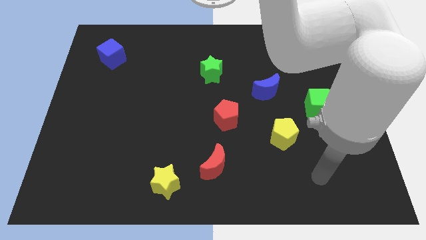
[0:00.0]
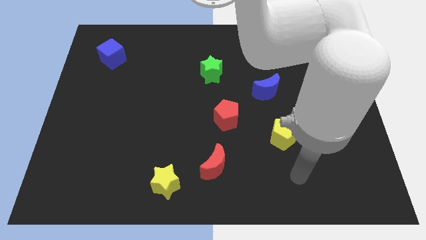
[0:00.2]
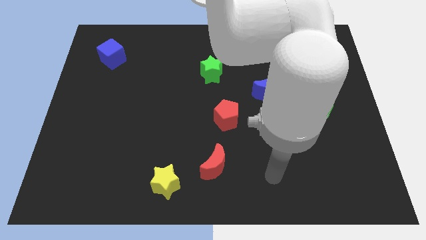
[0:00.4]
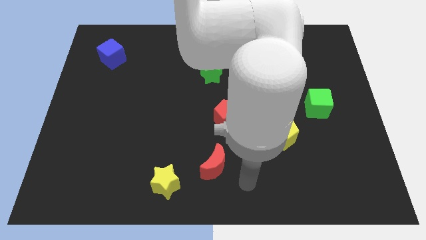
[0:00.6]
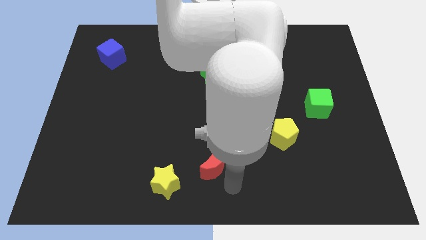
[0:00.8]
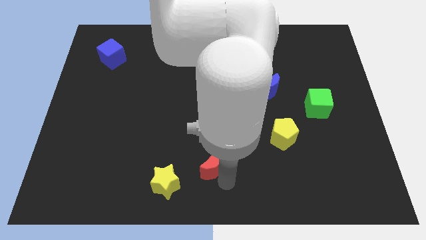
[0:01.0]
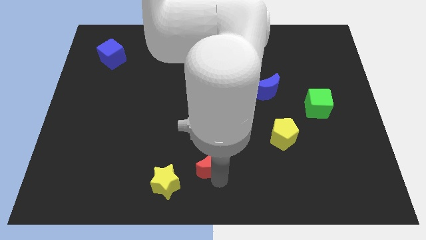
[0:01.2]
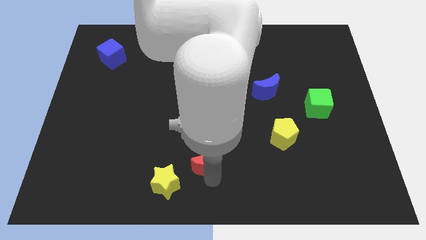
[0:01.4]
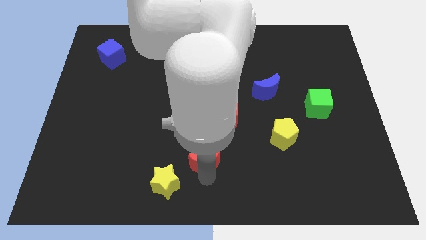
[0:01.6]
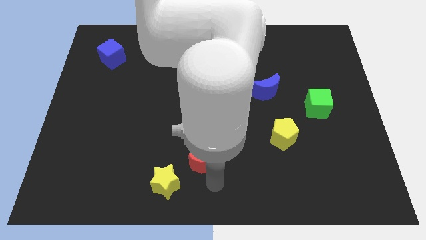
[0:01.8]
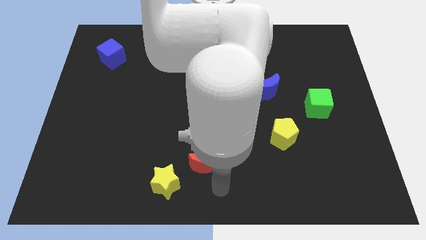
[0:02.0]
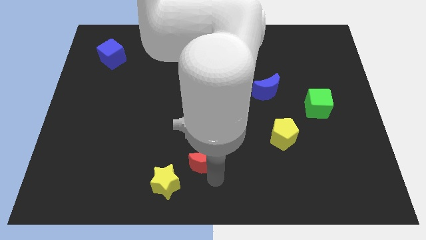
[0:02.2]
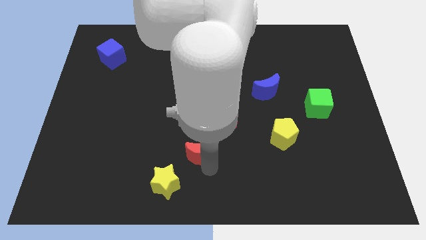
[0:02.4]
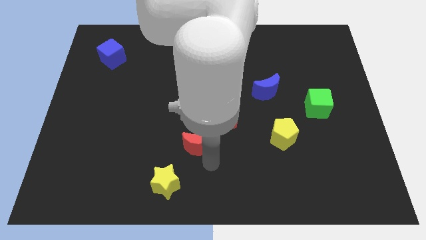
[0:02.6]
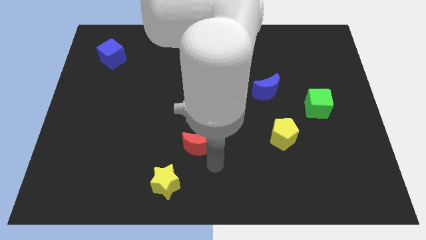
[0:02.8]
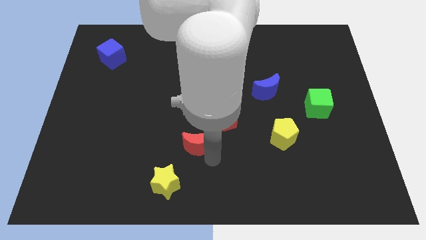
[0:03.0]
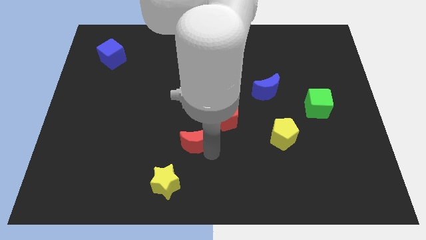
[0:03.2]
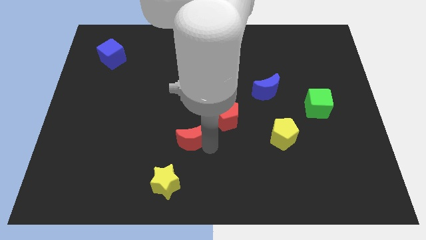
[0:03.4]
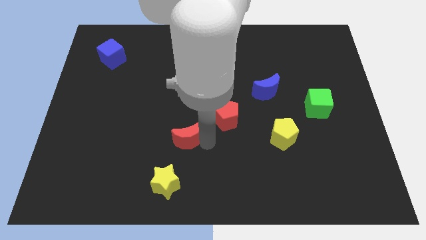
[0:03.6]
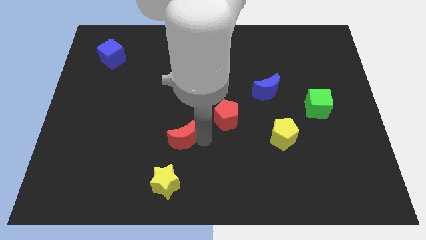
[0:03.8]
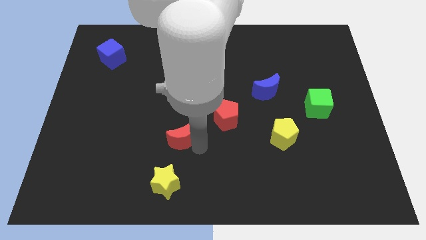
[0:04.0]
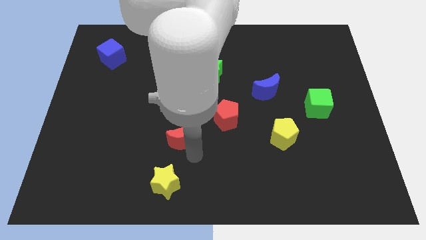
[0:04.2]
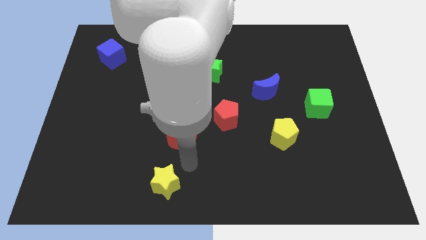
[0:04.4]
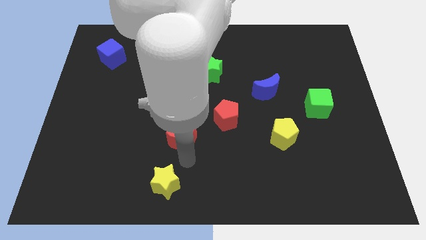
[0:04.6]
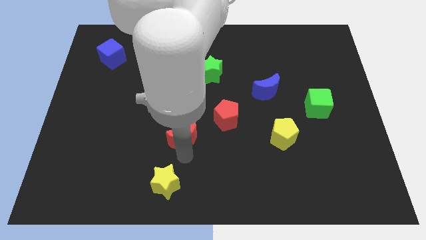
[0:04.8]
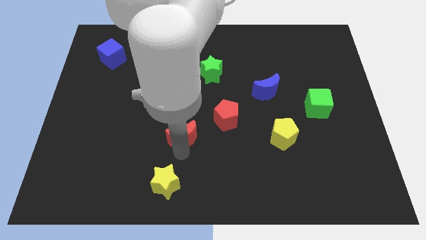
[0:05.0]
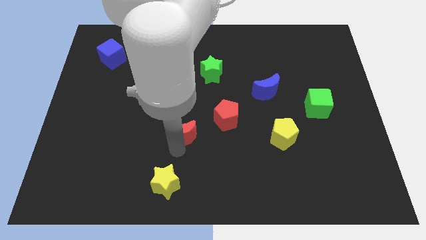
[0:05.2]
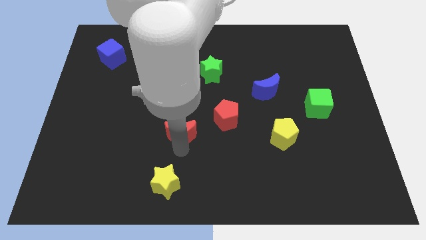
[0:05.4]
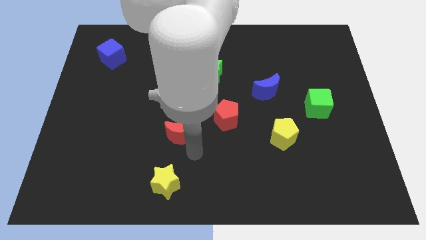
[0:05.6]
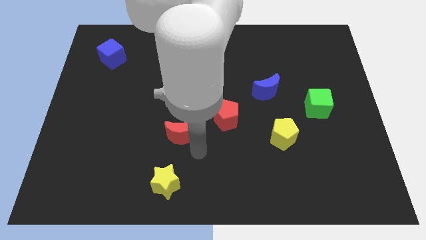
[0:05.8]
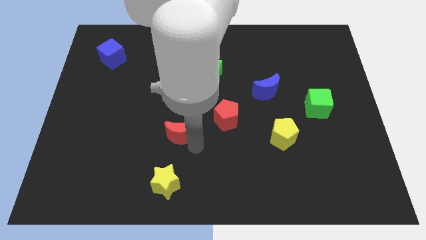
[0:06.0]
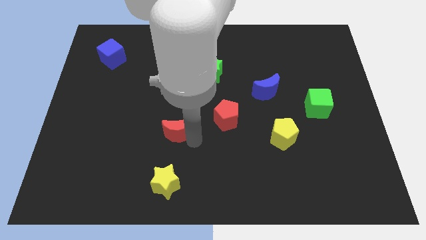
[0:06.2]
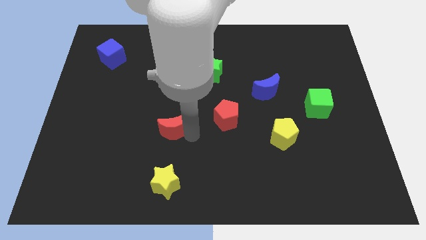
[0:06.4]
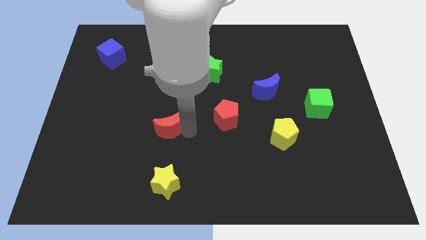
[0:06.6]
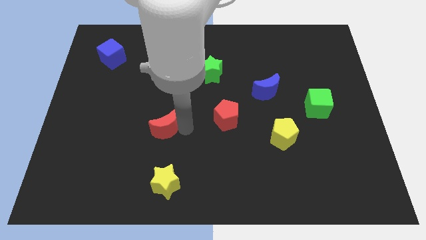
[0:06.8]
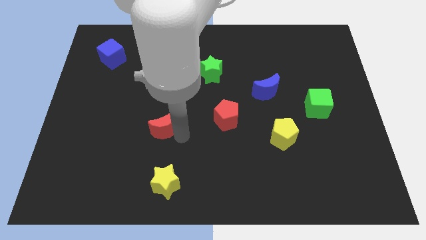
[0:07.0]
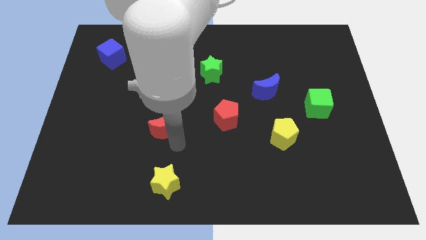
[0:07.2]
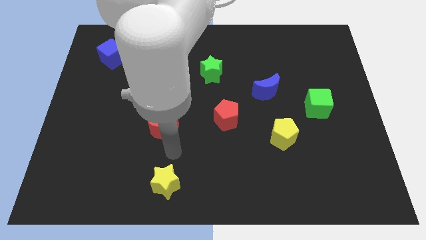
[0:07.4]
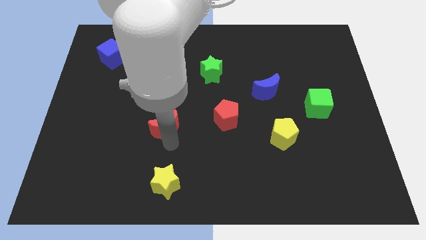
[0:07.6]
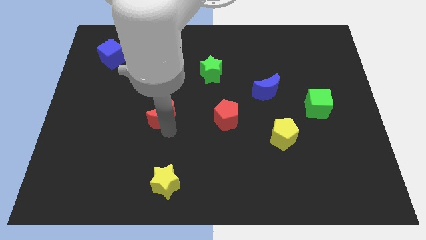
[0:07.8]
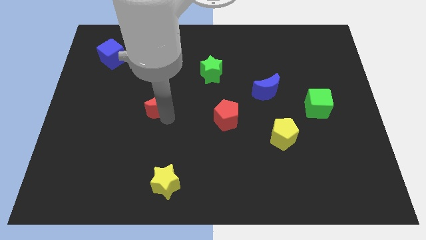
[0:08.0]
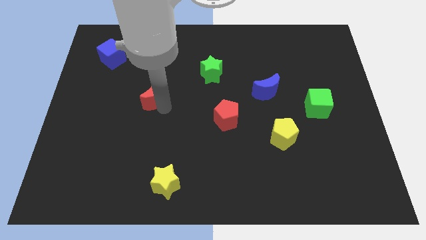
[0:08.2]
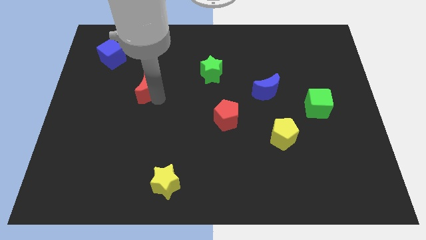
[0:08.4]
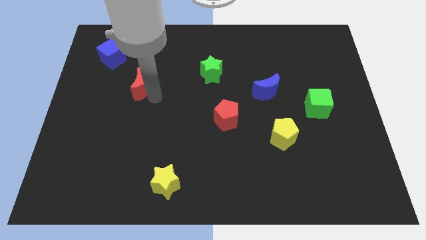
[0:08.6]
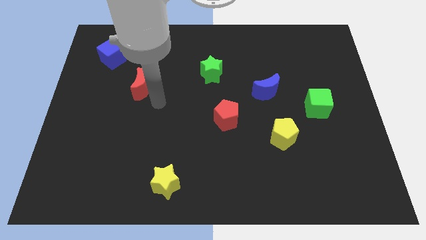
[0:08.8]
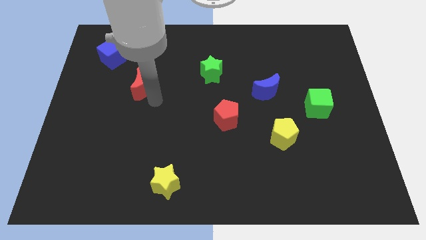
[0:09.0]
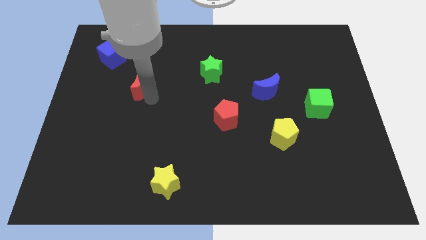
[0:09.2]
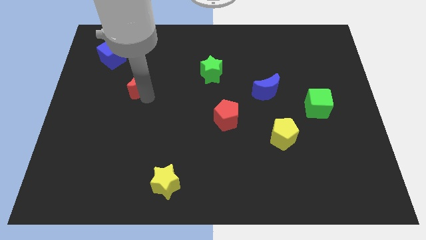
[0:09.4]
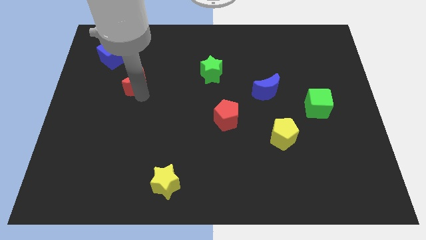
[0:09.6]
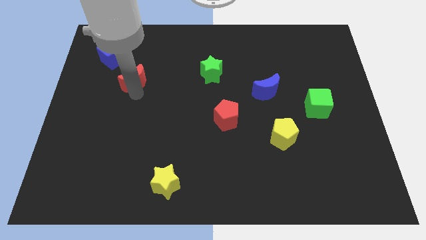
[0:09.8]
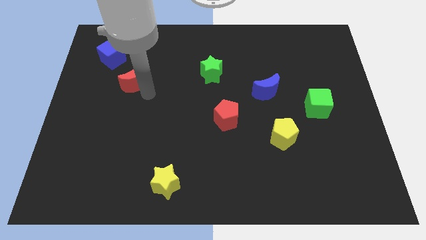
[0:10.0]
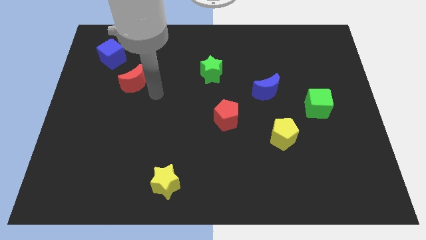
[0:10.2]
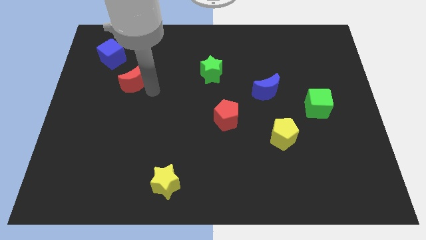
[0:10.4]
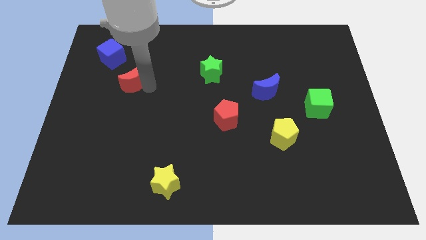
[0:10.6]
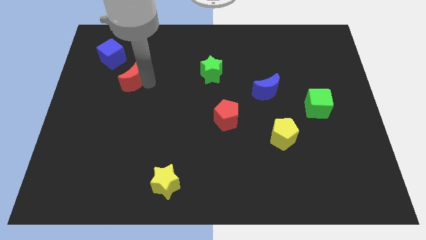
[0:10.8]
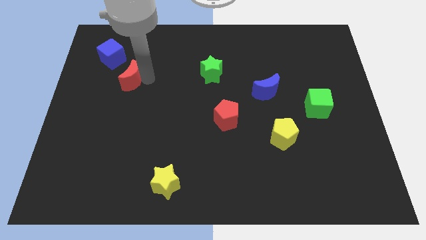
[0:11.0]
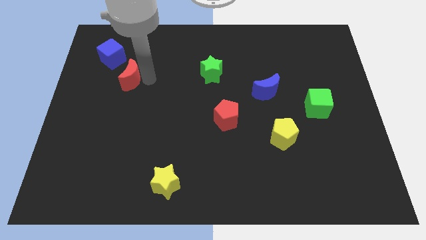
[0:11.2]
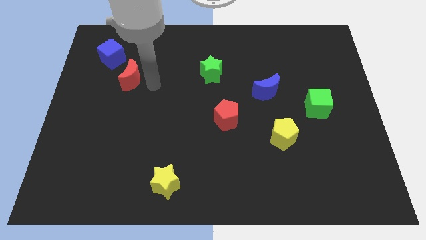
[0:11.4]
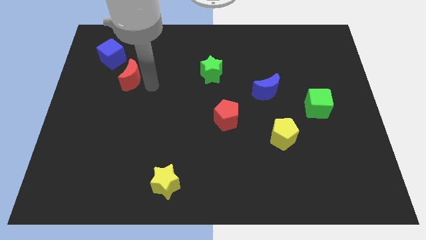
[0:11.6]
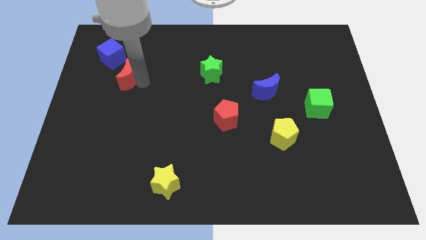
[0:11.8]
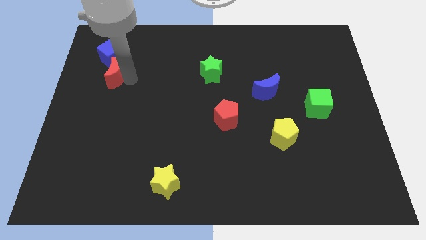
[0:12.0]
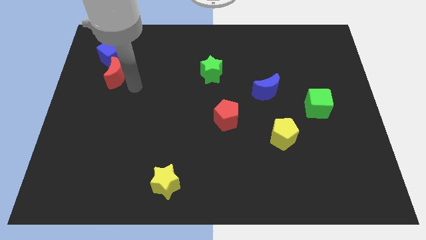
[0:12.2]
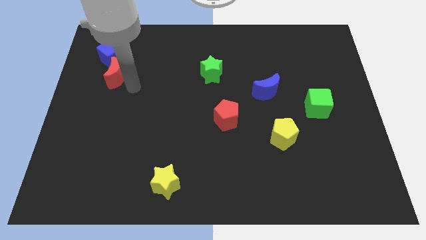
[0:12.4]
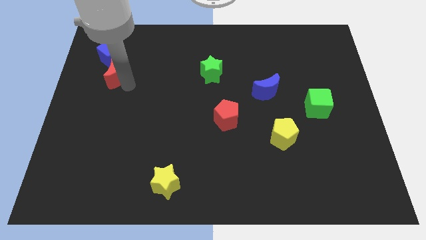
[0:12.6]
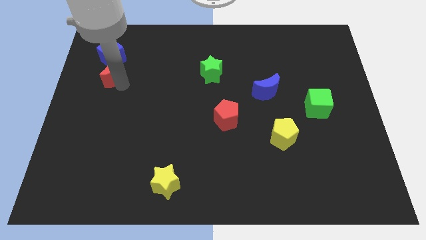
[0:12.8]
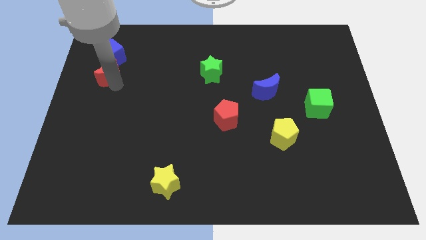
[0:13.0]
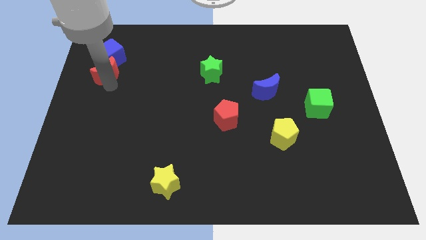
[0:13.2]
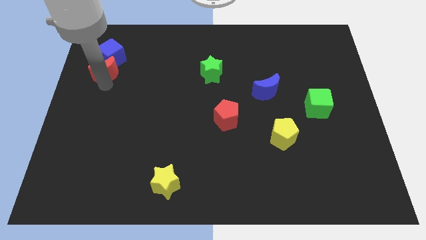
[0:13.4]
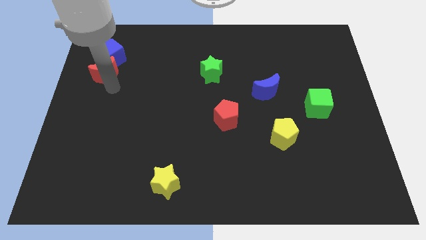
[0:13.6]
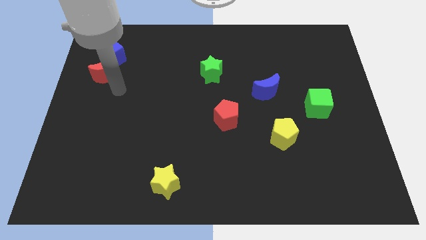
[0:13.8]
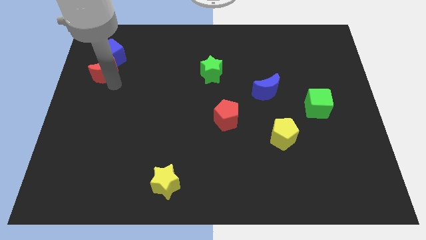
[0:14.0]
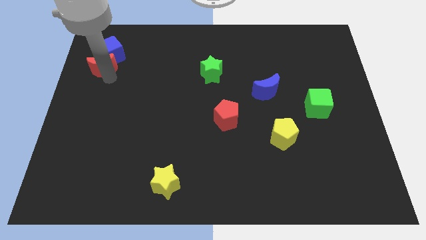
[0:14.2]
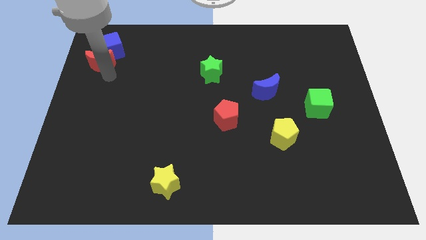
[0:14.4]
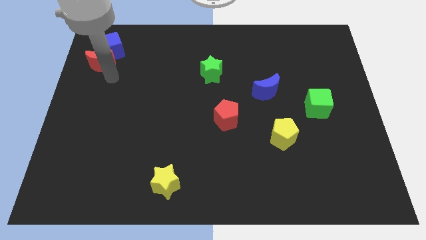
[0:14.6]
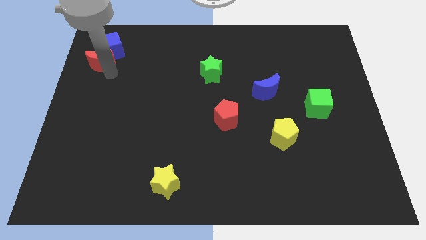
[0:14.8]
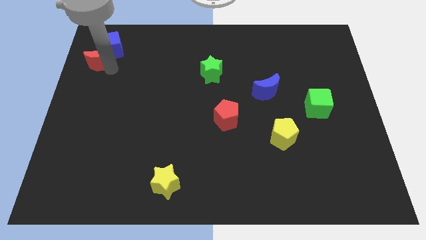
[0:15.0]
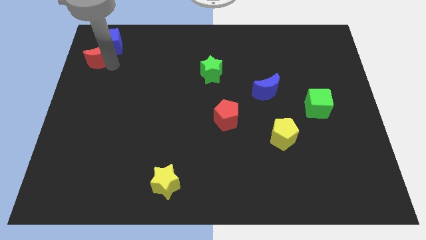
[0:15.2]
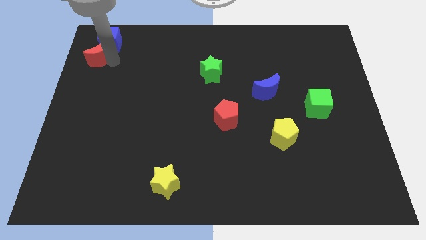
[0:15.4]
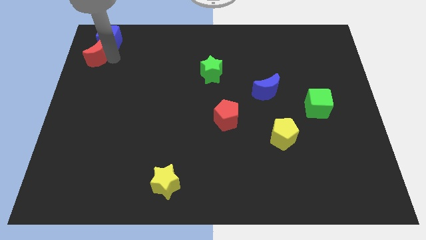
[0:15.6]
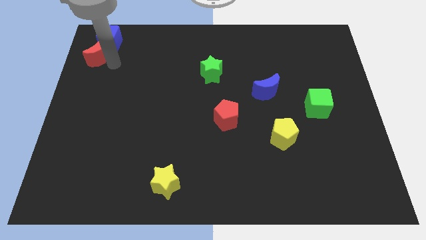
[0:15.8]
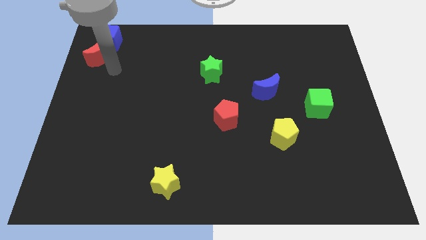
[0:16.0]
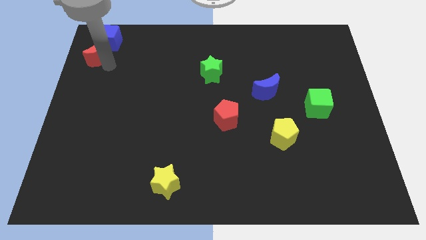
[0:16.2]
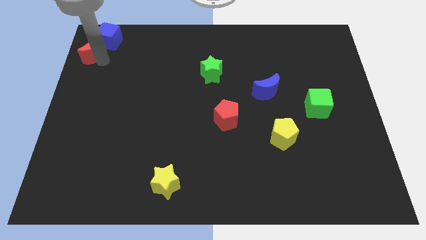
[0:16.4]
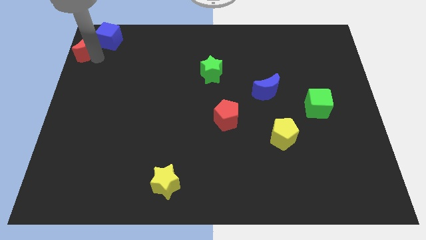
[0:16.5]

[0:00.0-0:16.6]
push the red moon to the top left
